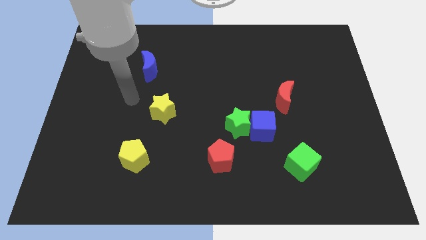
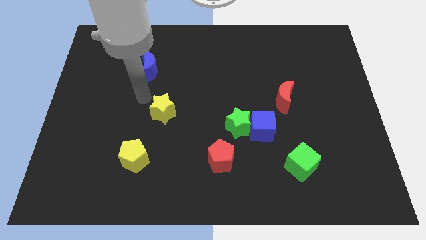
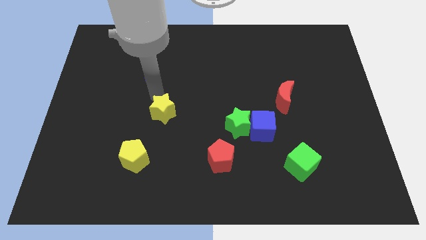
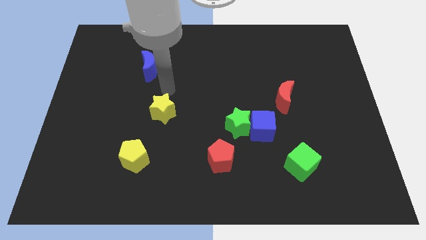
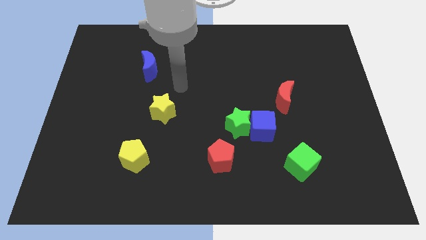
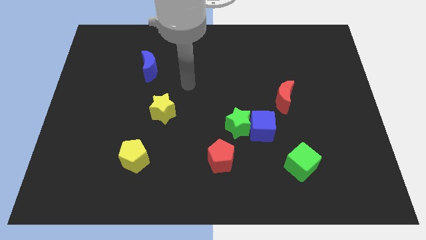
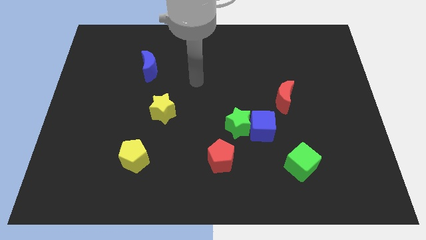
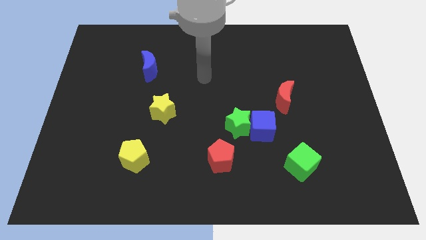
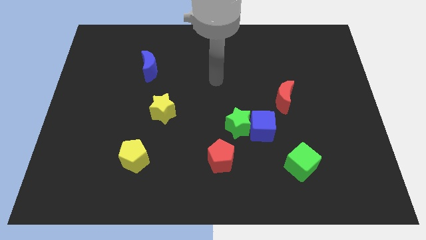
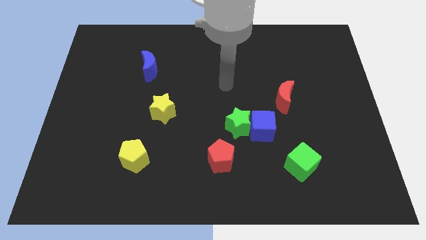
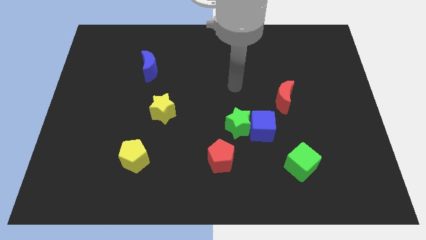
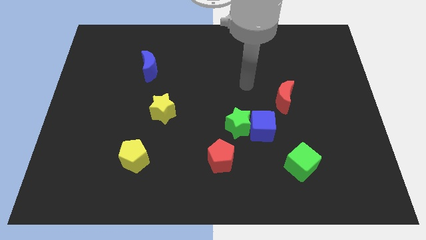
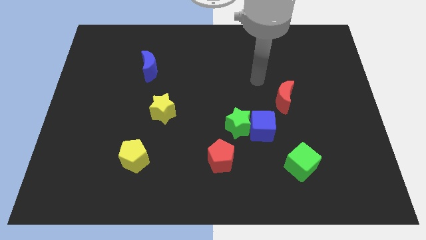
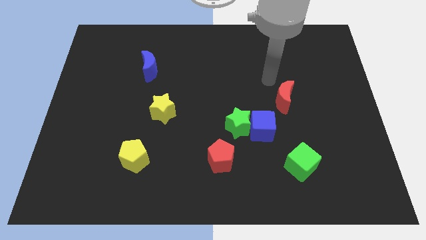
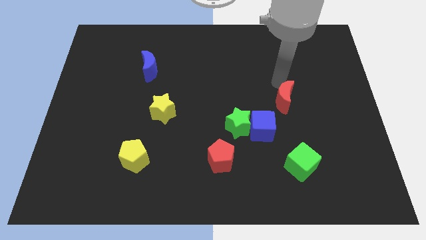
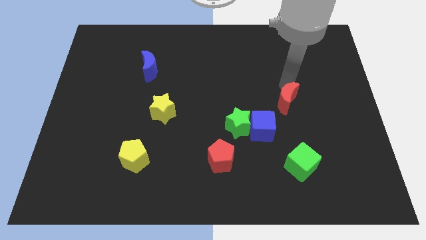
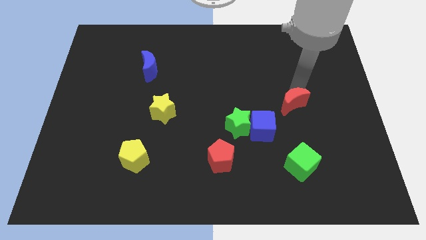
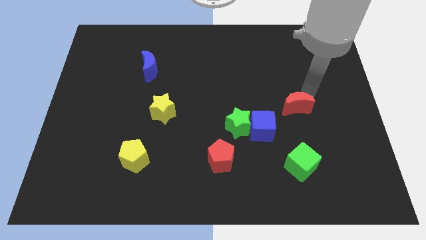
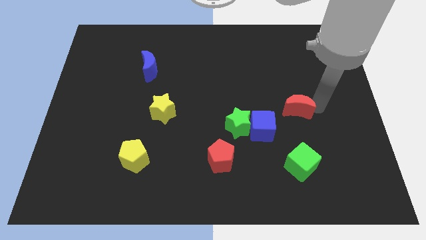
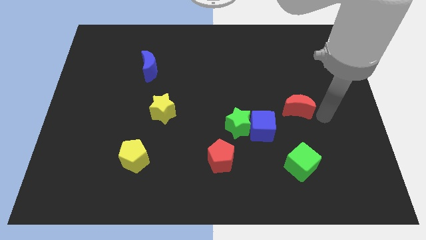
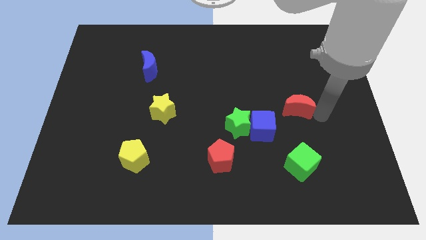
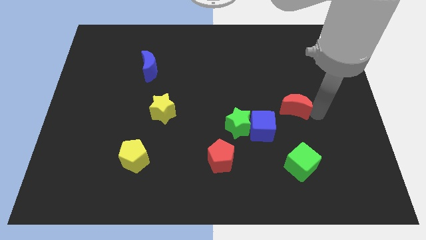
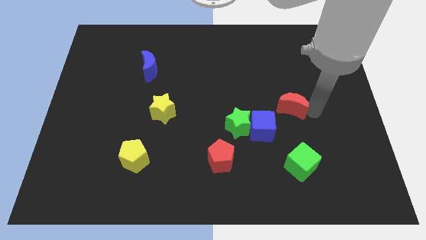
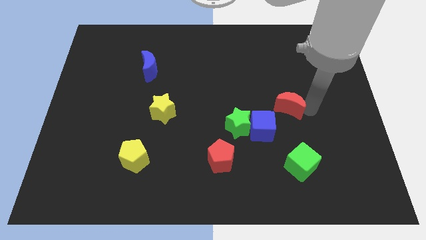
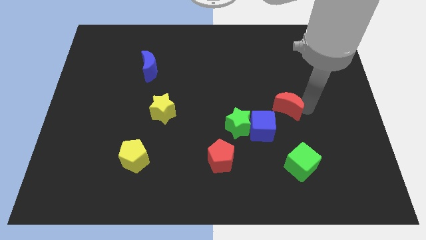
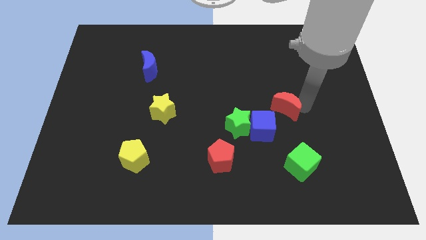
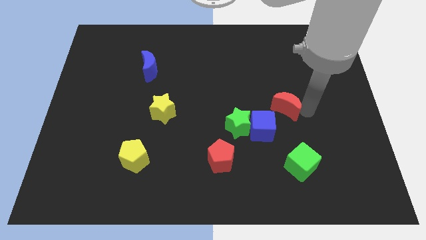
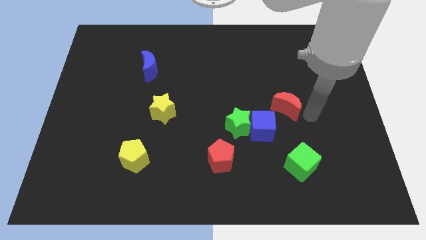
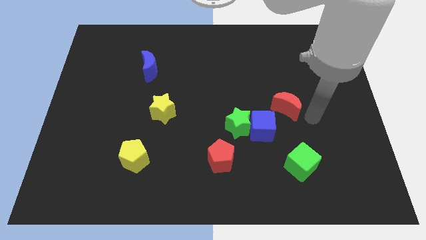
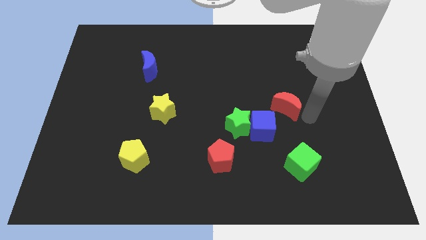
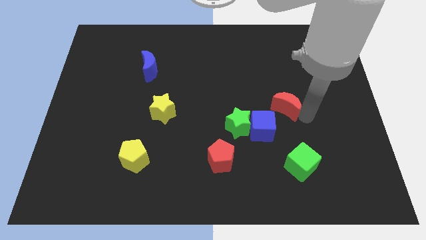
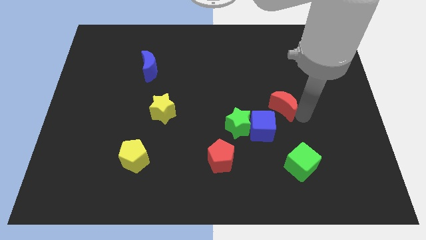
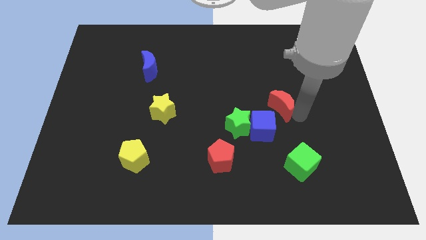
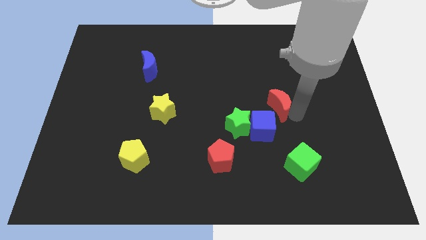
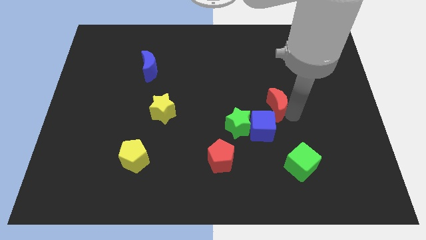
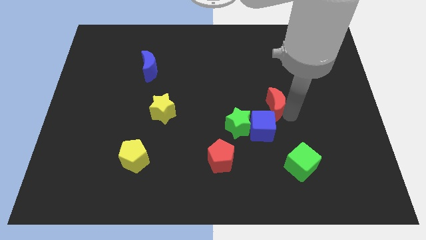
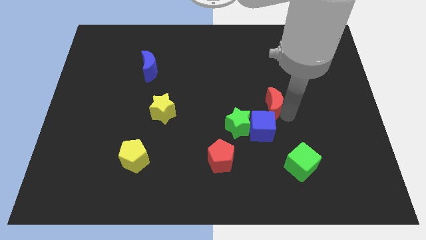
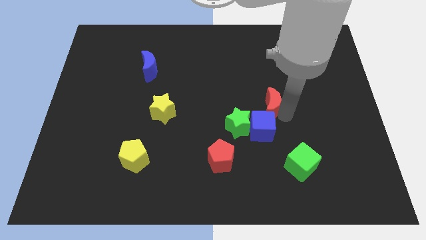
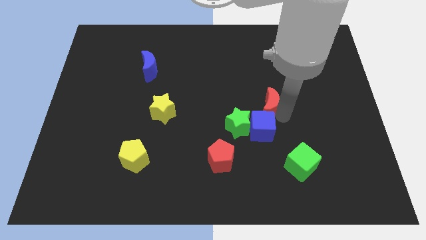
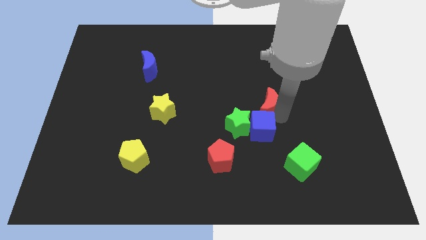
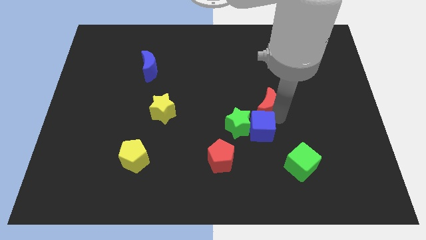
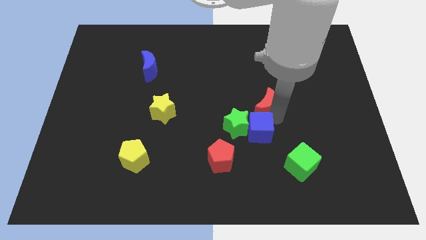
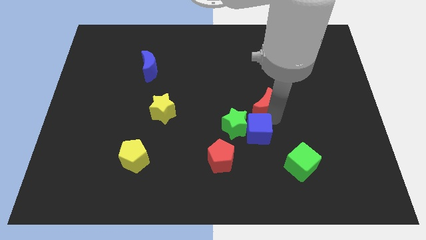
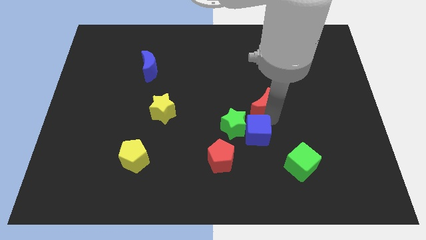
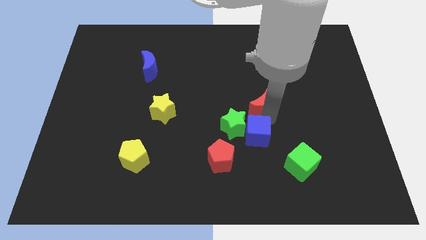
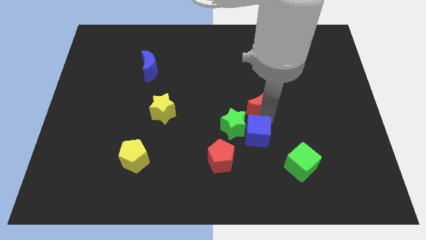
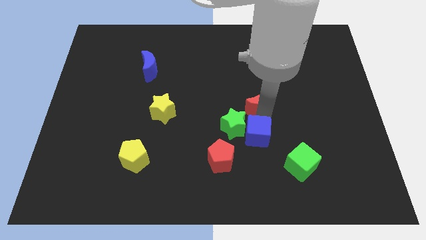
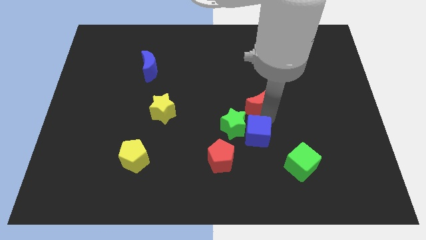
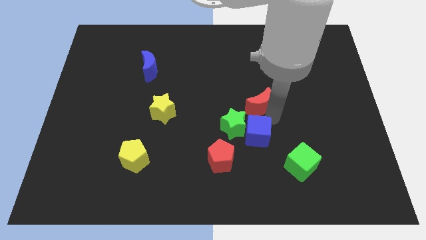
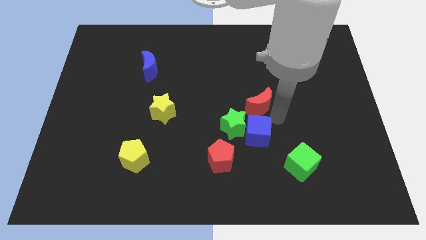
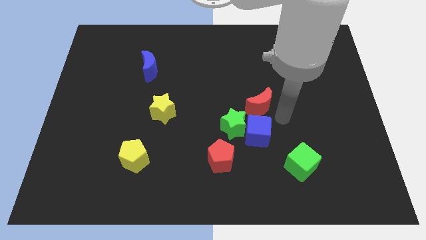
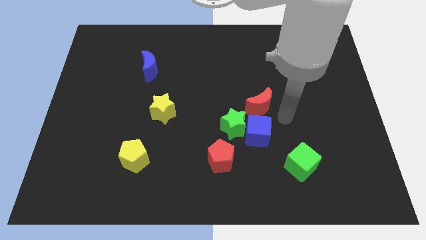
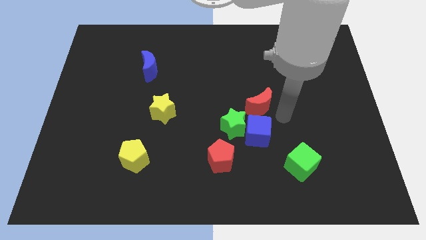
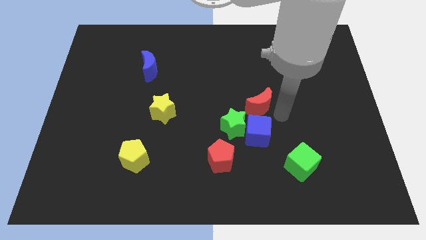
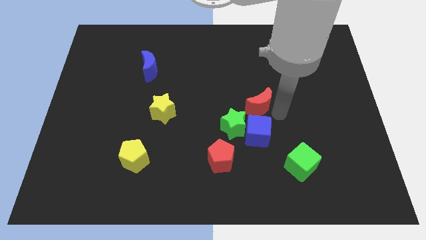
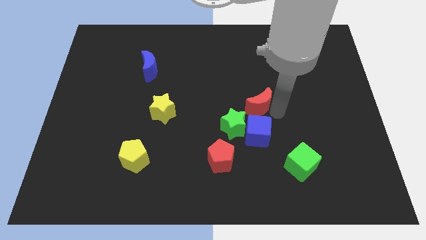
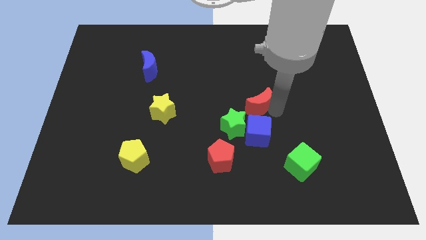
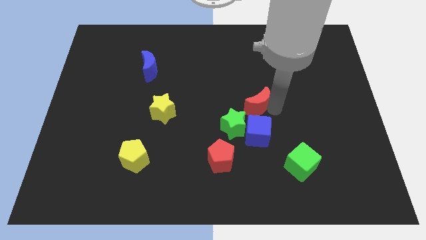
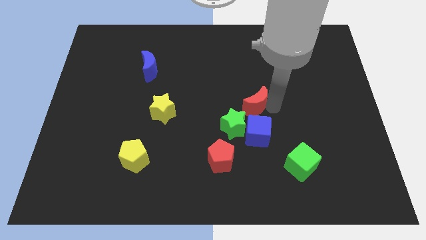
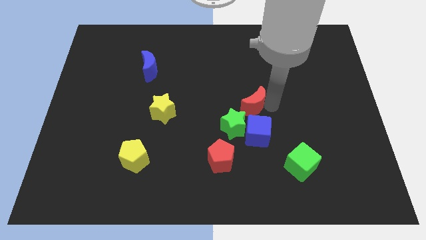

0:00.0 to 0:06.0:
slide the red moon slightly left

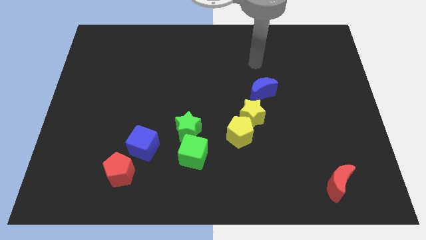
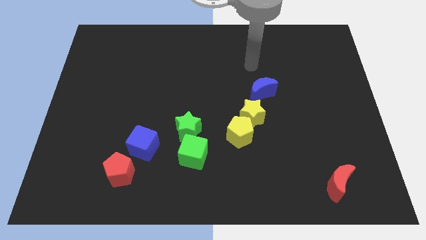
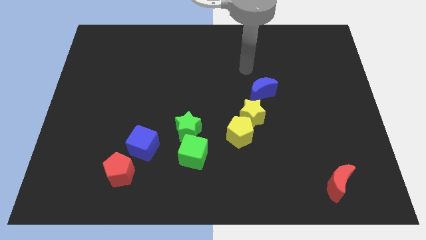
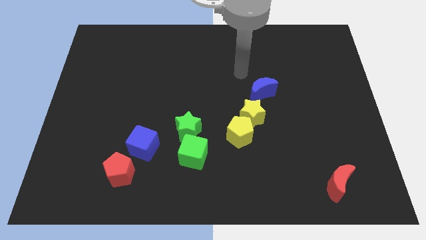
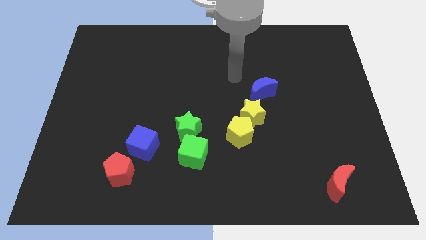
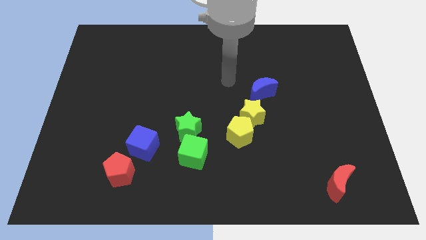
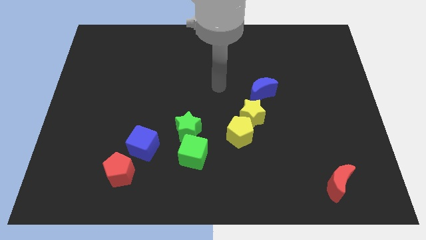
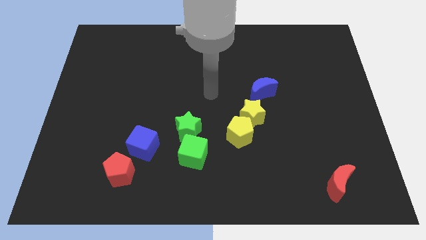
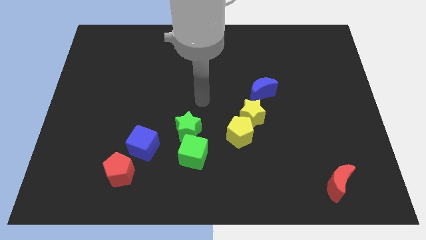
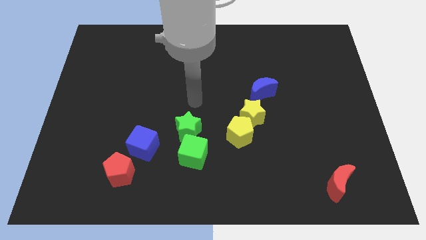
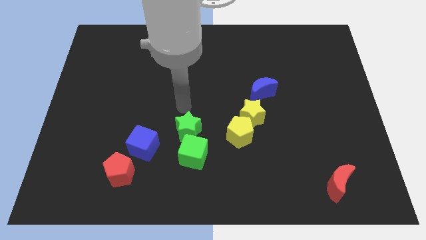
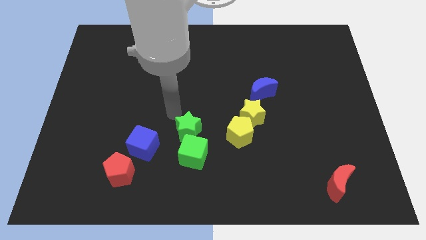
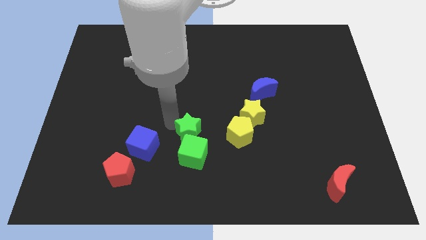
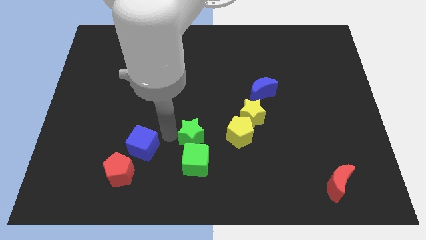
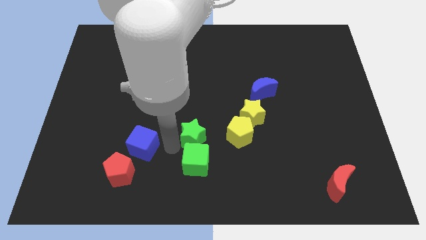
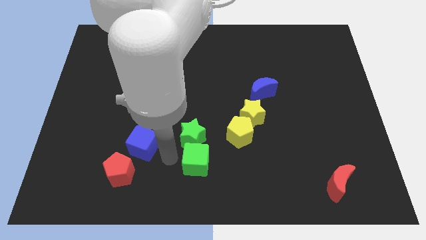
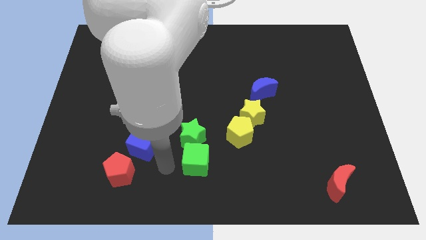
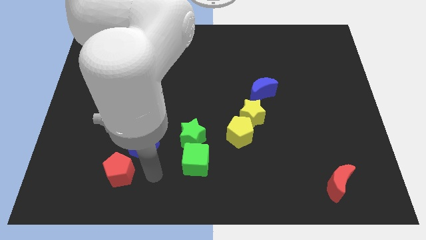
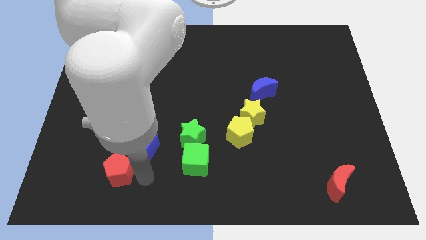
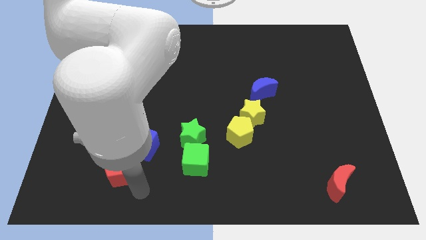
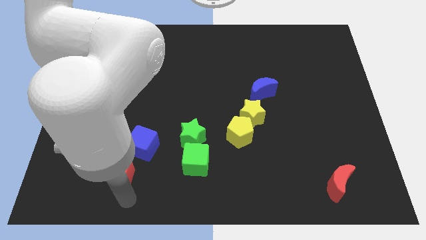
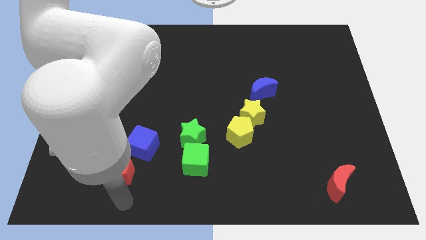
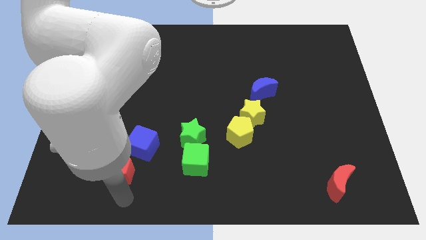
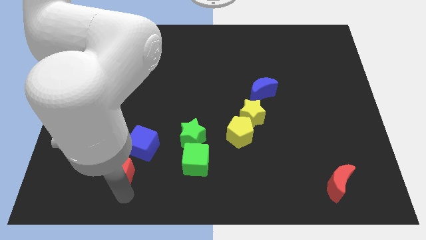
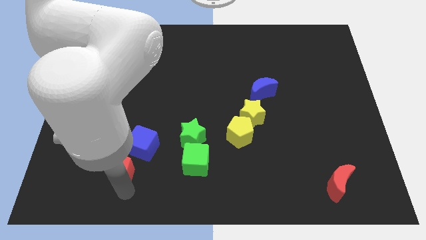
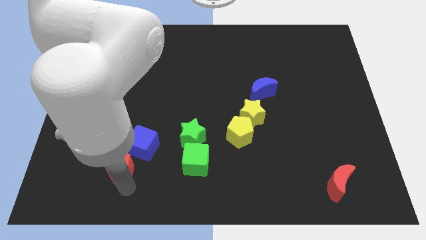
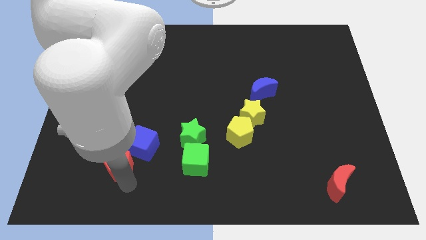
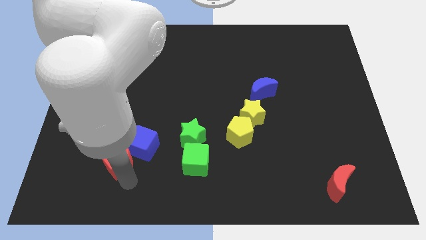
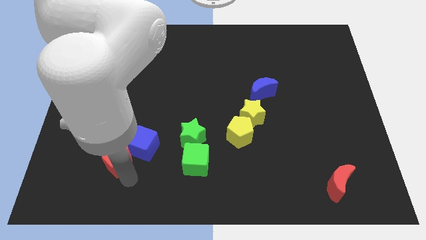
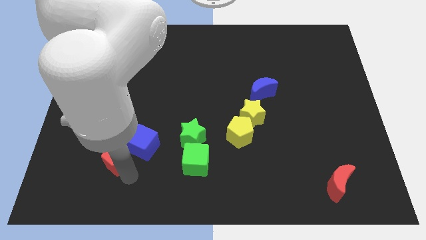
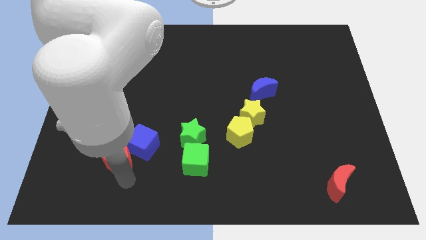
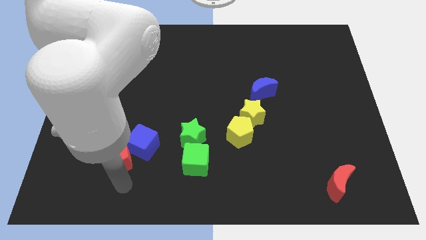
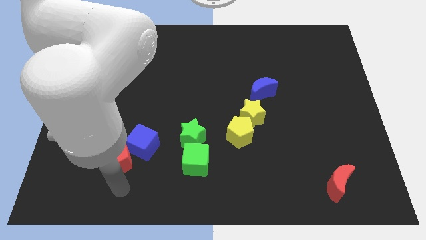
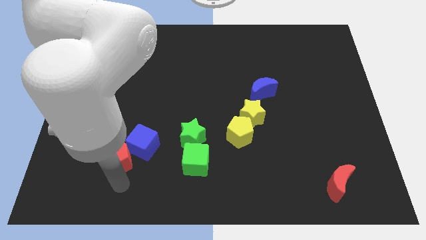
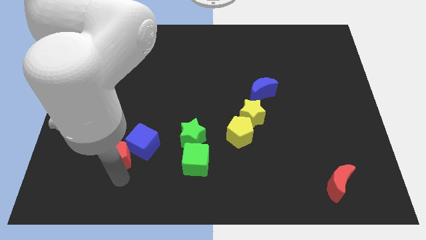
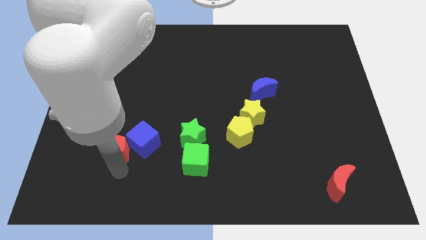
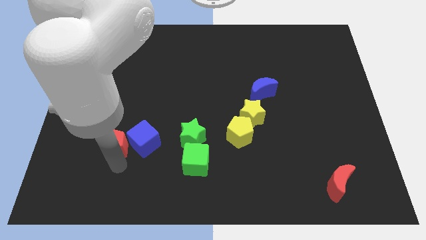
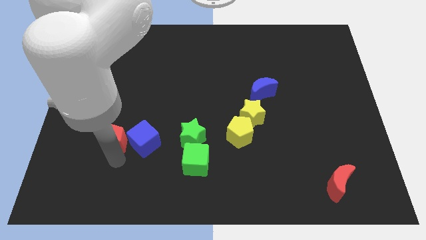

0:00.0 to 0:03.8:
move the red pentagon slightly upwards
